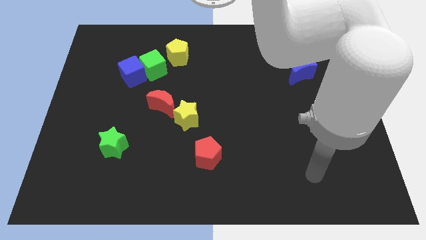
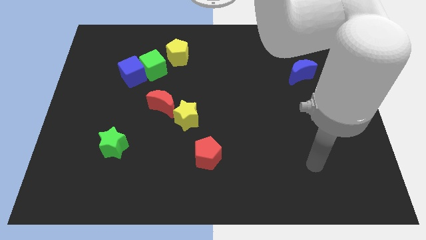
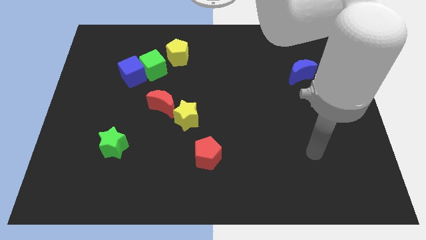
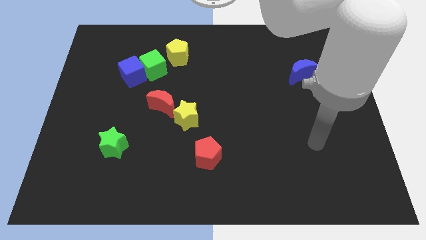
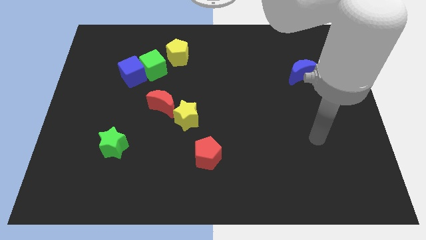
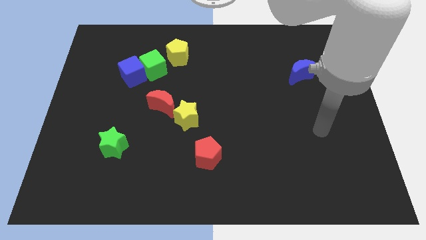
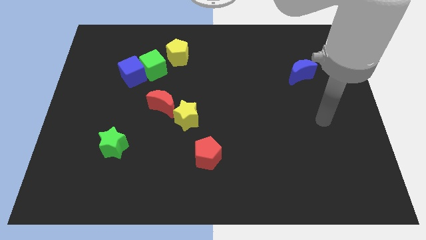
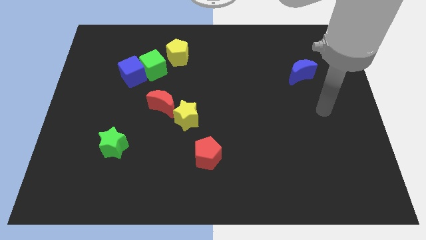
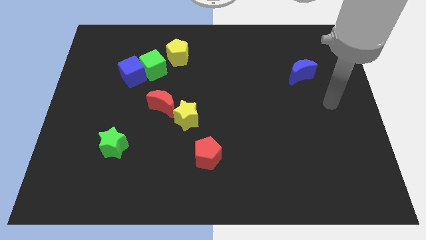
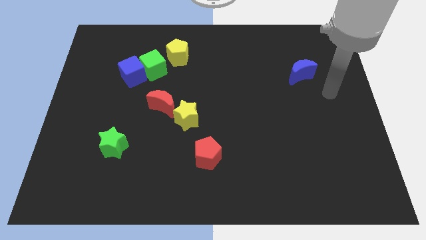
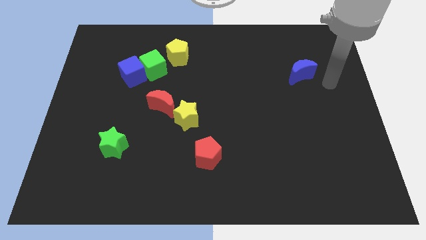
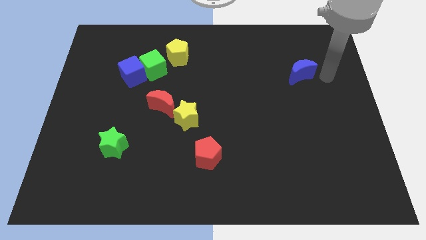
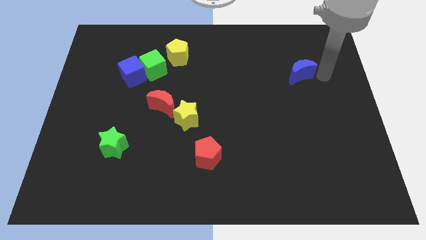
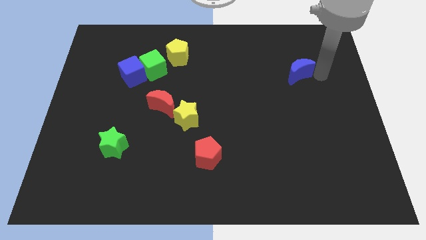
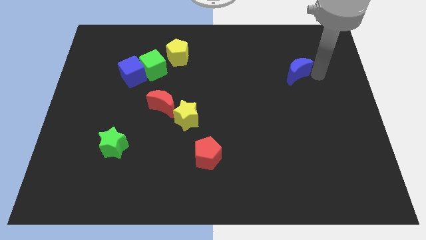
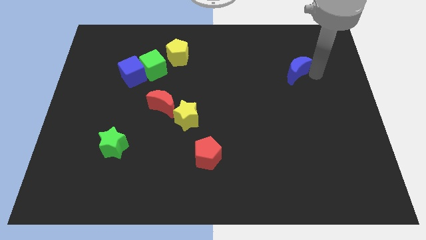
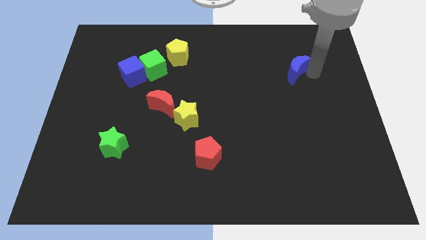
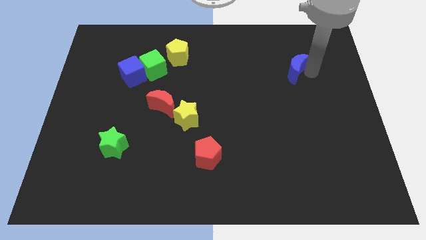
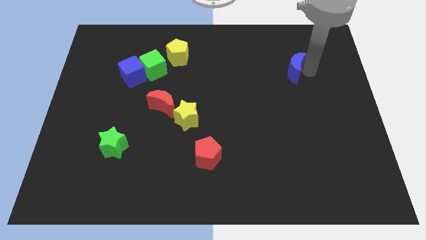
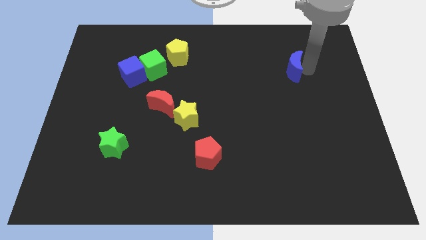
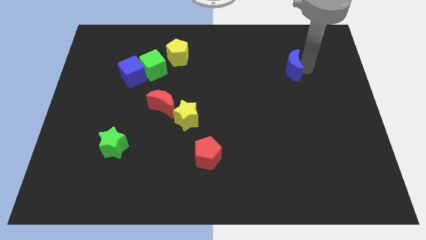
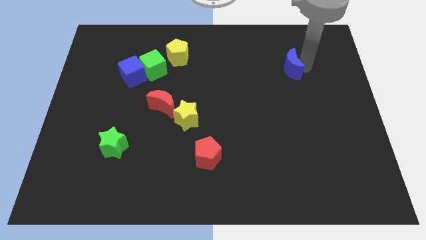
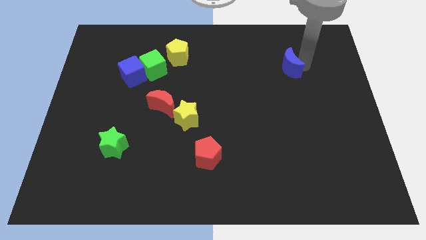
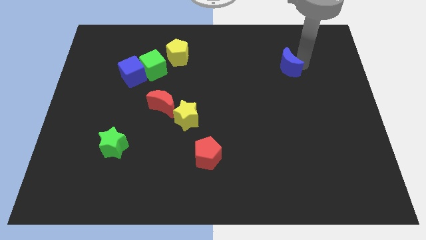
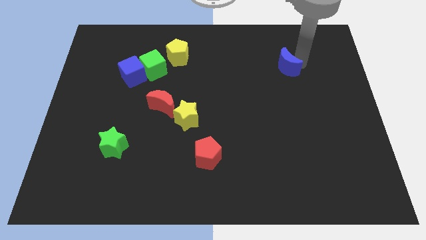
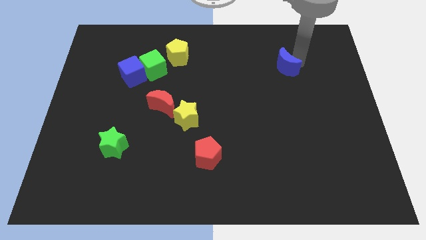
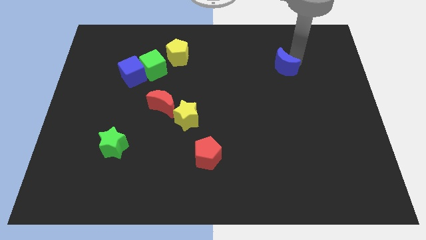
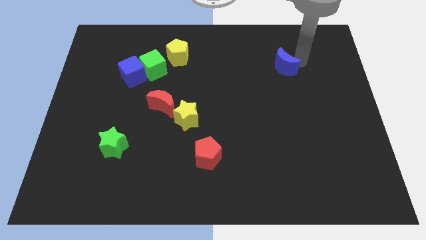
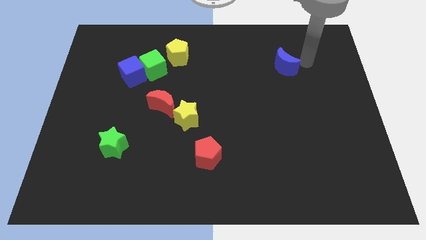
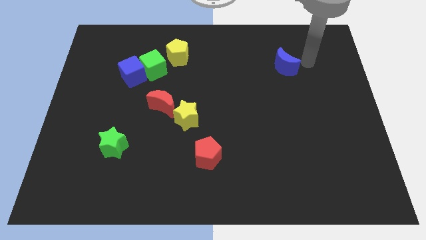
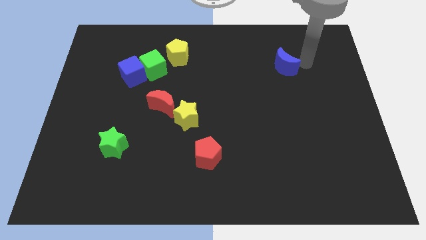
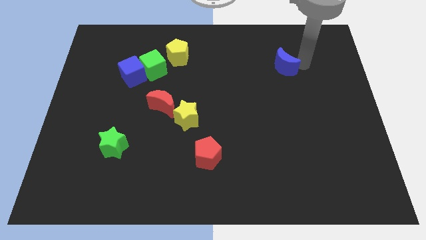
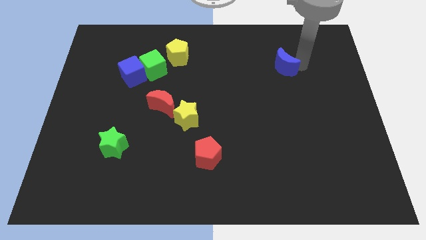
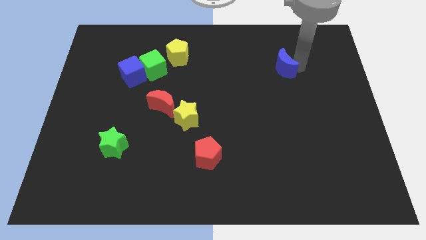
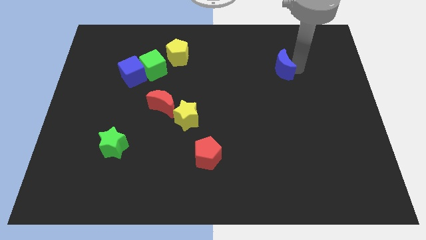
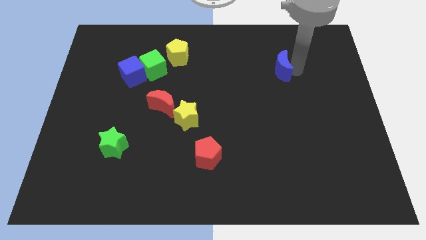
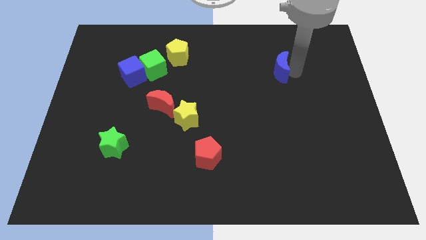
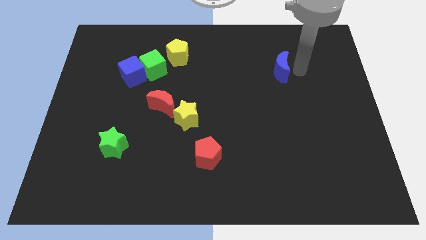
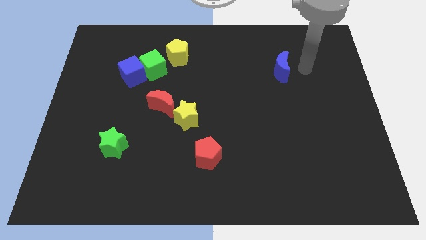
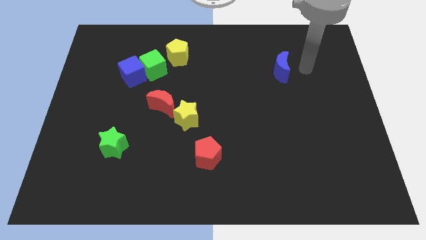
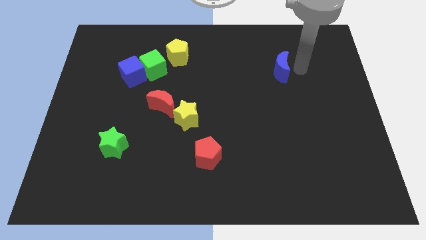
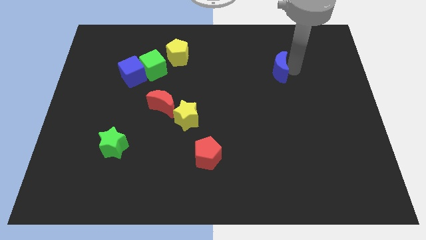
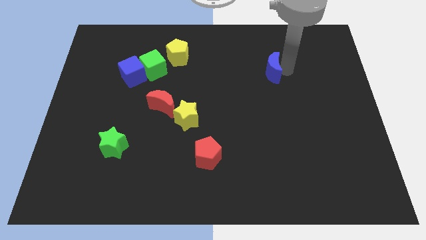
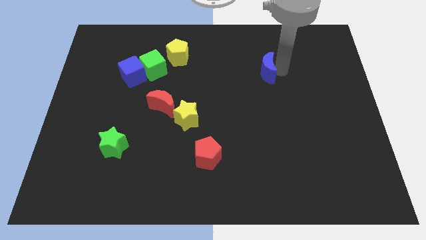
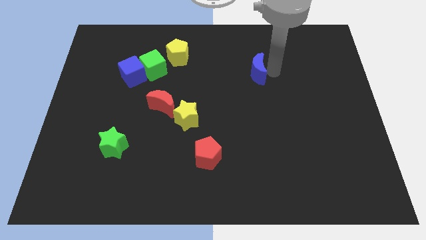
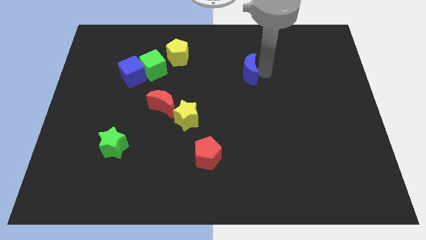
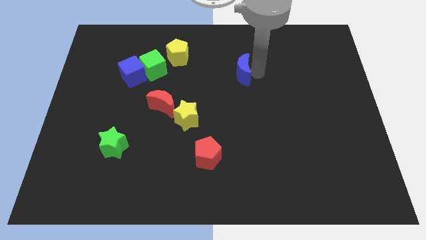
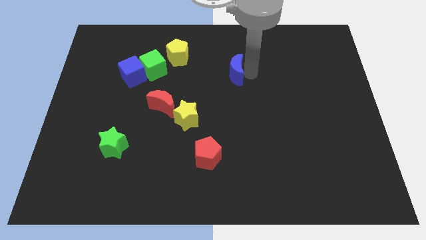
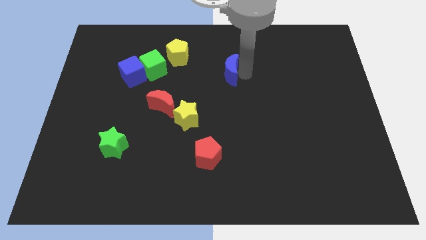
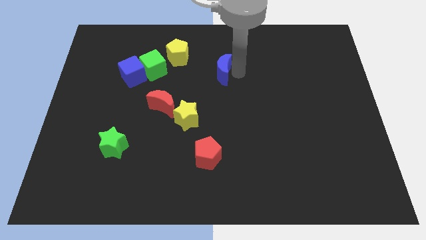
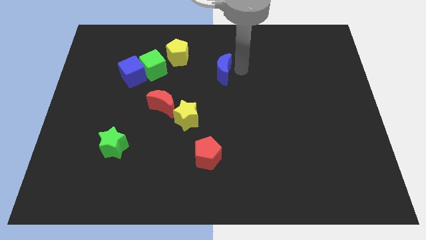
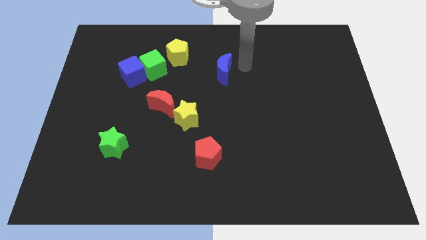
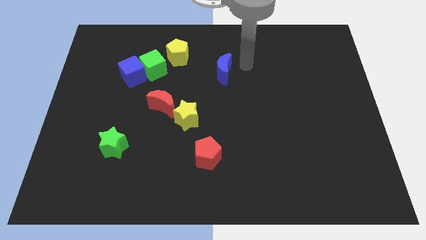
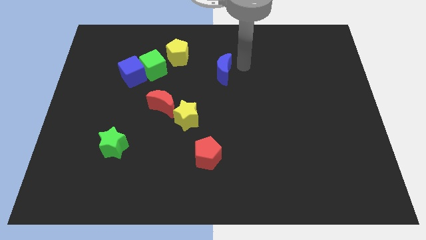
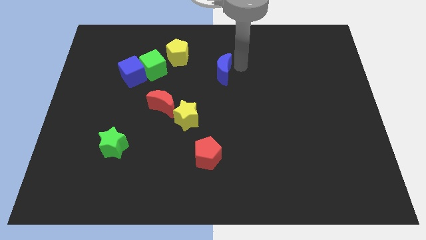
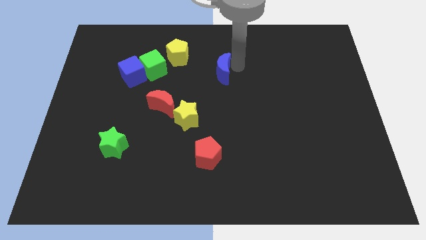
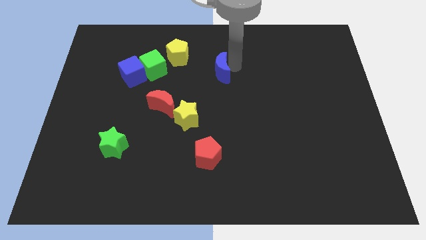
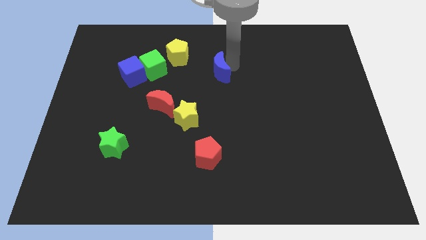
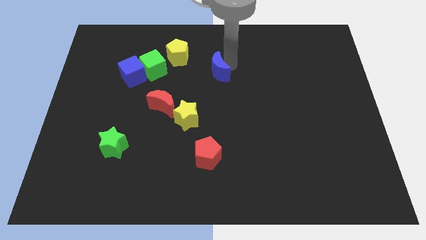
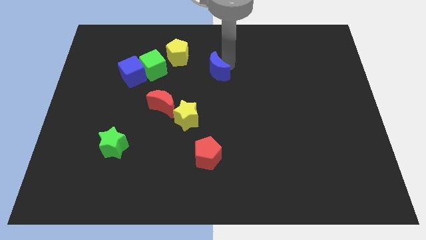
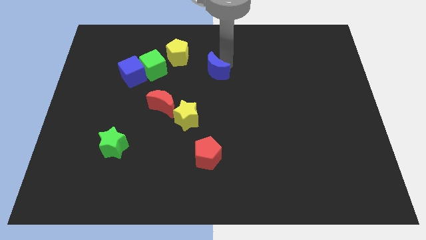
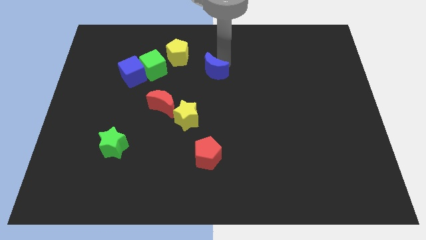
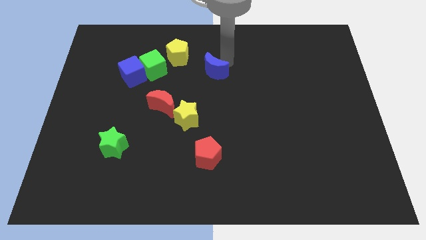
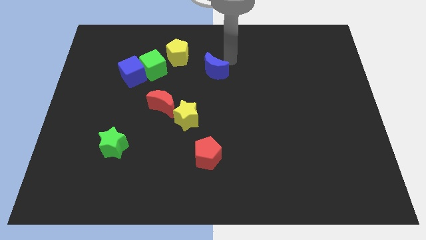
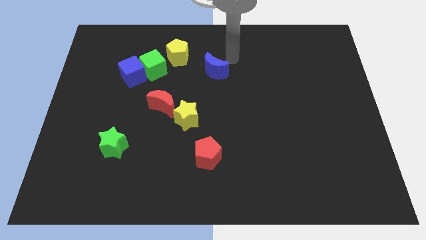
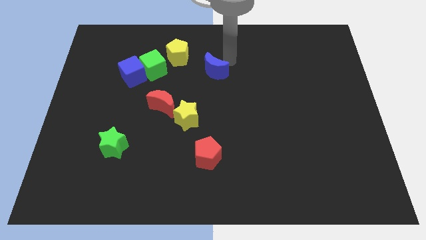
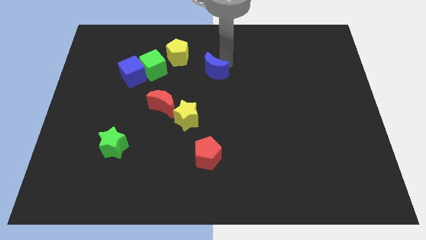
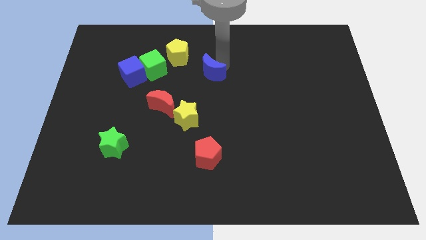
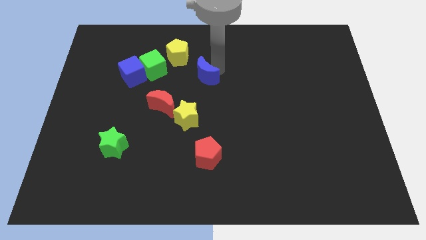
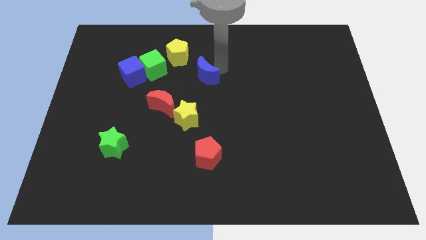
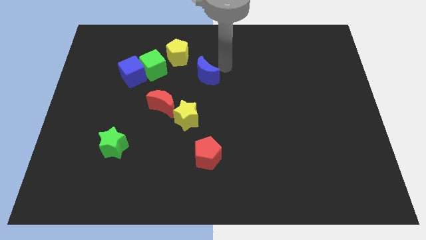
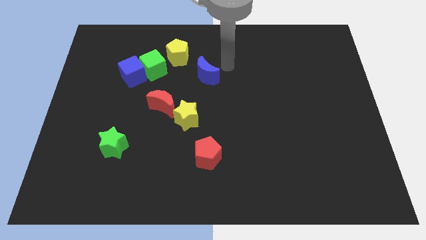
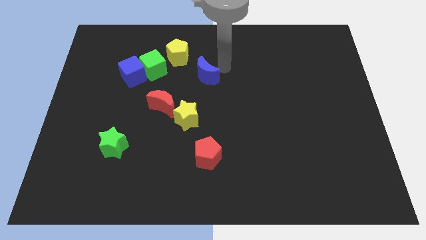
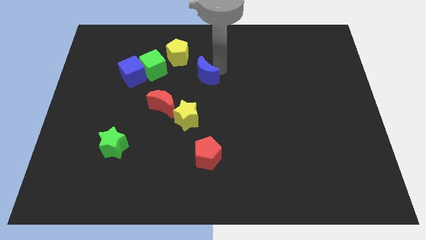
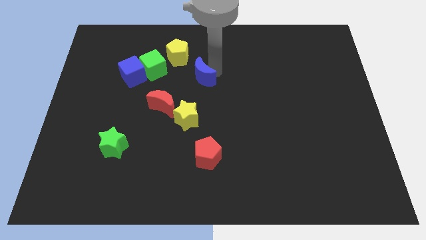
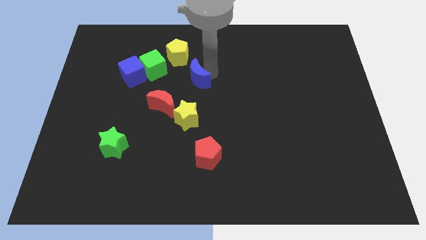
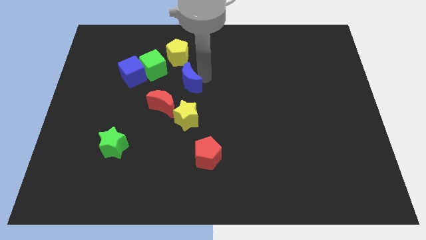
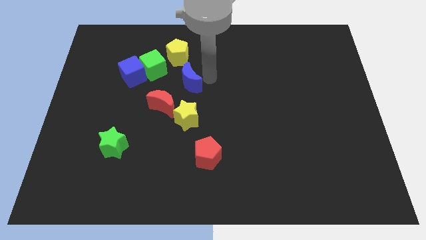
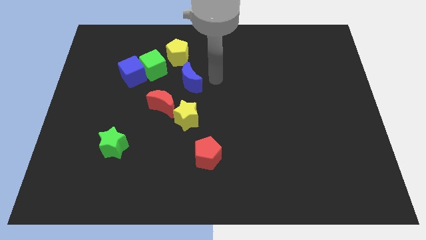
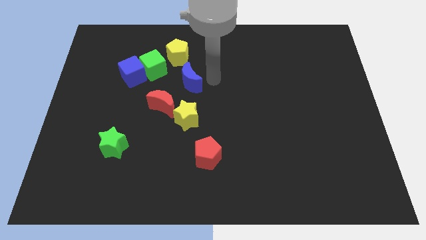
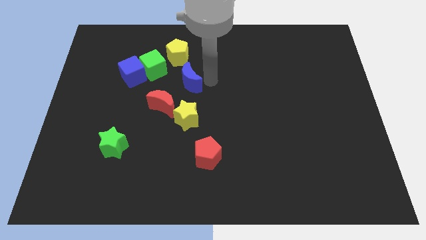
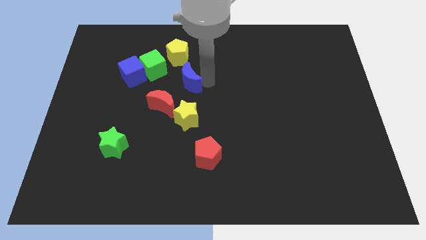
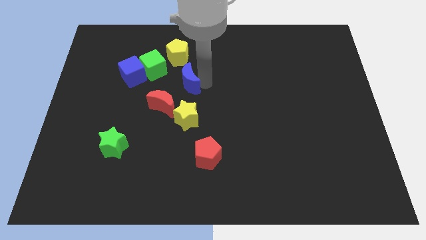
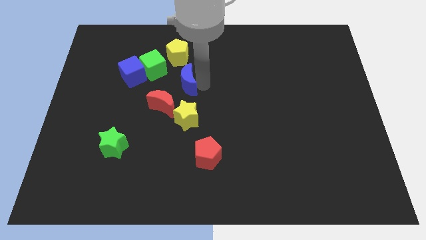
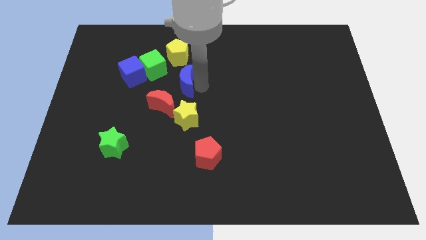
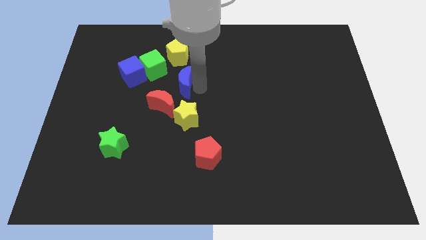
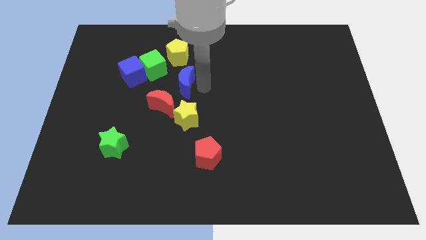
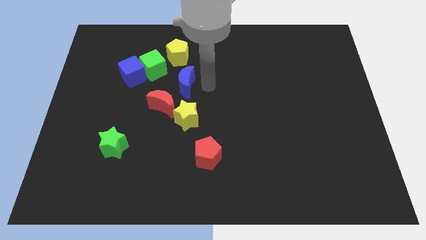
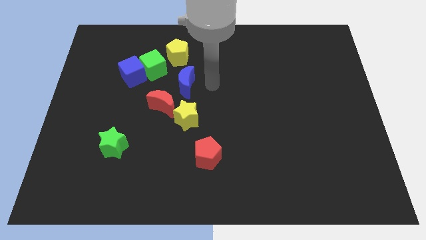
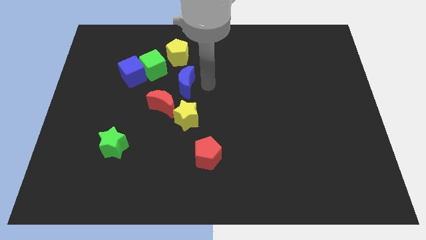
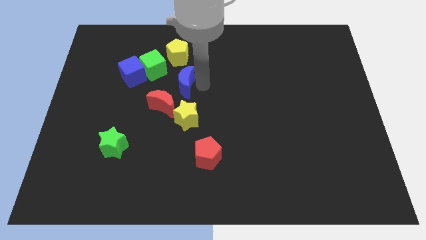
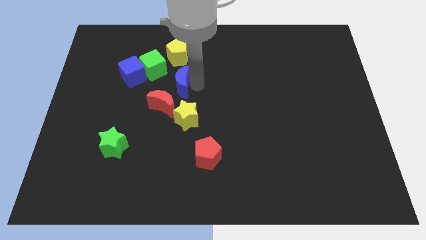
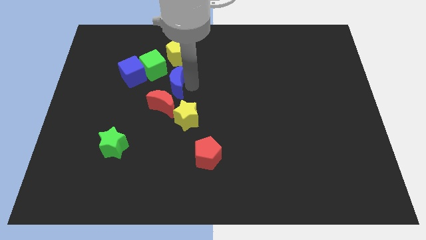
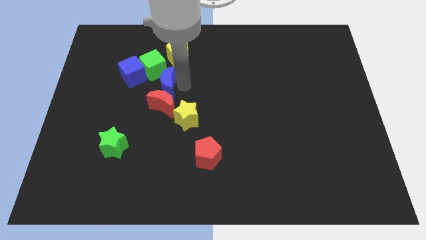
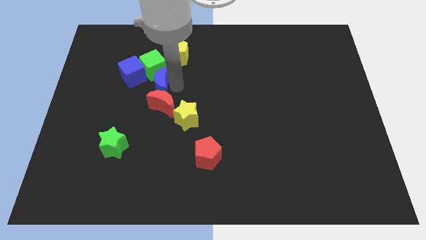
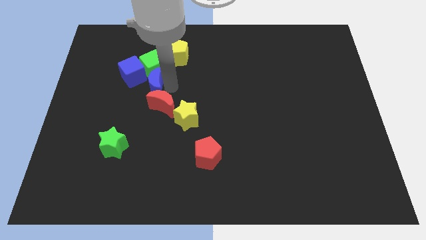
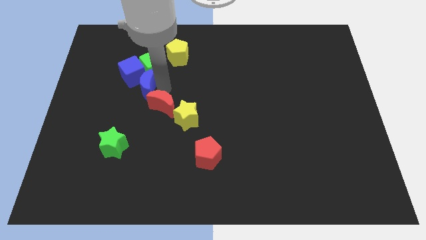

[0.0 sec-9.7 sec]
slide the blue moon to the blue cube
